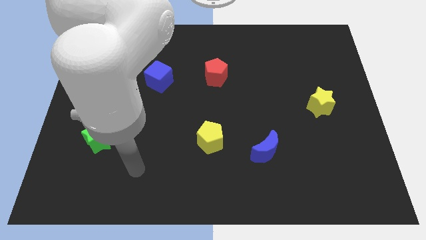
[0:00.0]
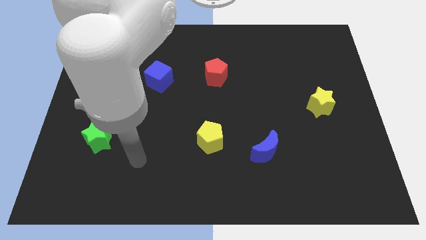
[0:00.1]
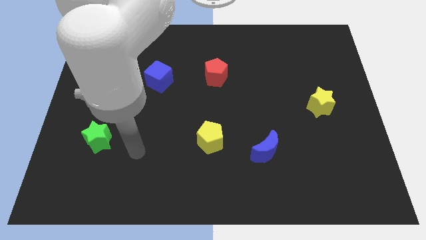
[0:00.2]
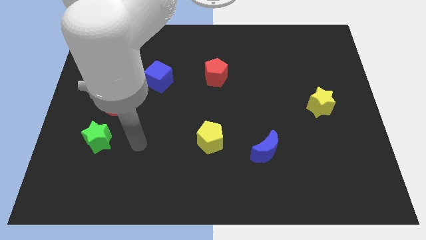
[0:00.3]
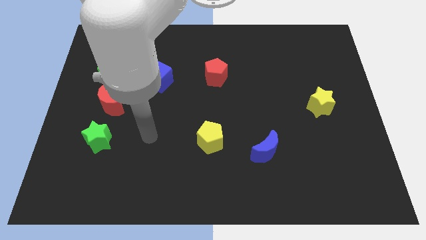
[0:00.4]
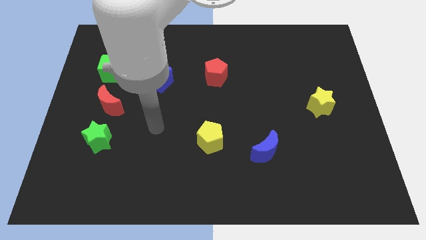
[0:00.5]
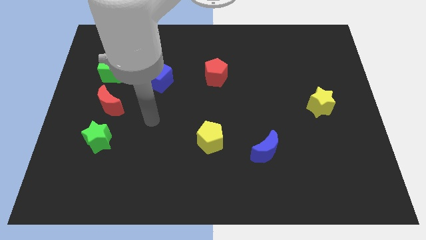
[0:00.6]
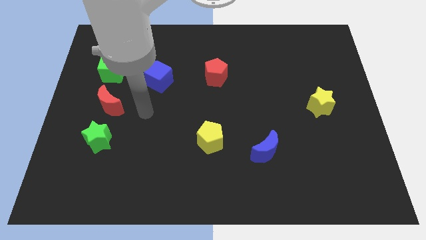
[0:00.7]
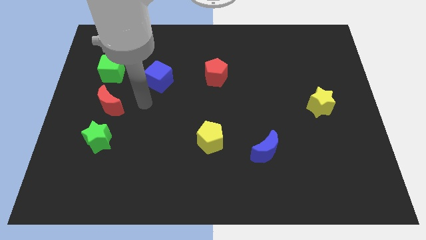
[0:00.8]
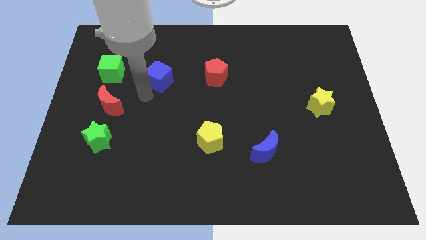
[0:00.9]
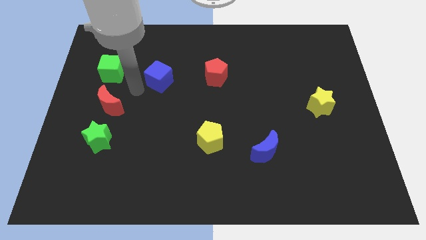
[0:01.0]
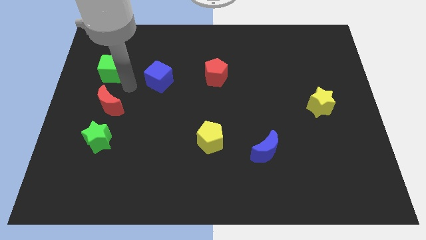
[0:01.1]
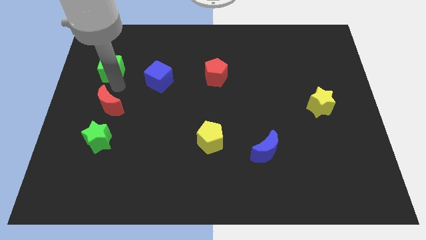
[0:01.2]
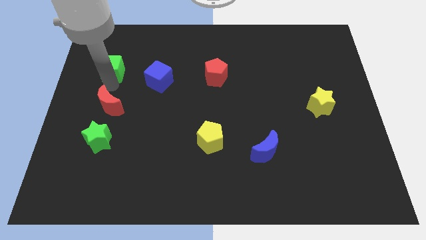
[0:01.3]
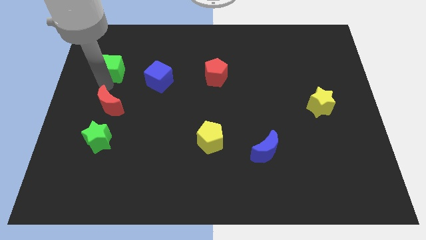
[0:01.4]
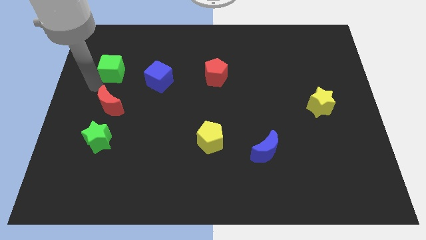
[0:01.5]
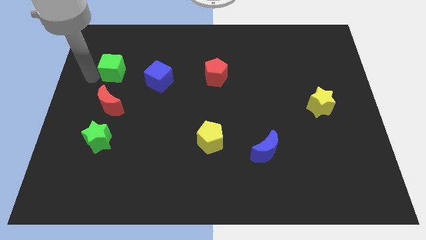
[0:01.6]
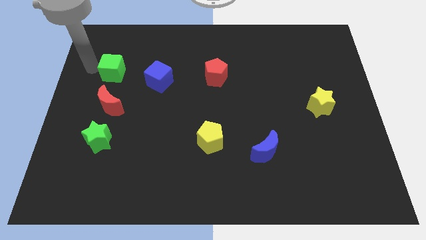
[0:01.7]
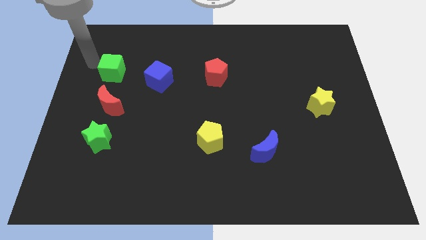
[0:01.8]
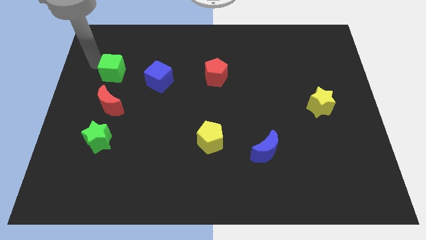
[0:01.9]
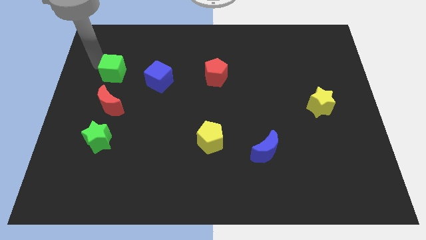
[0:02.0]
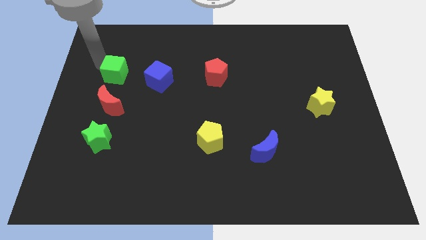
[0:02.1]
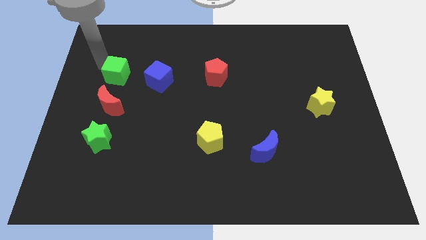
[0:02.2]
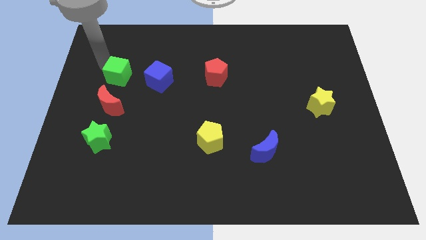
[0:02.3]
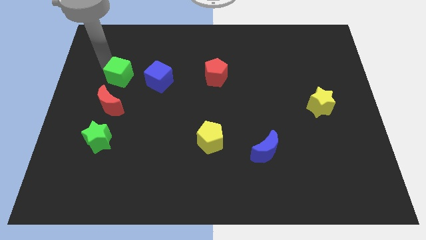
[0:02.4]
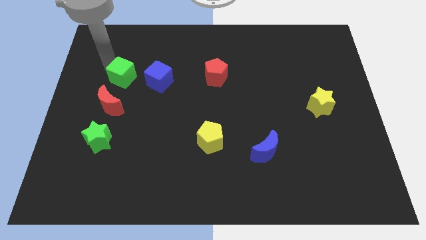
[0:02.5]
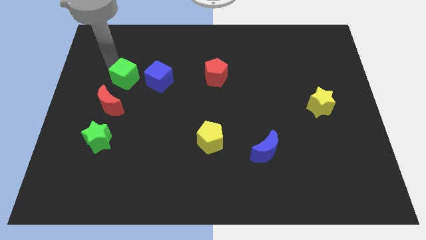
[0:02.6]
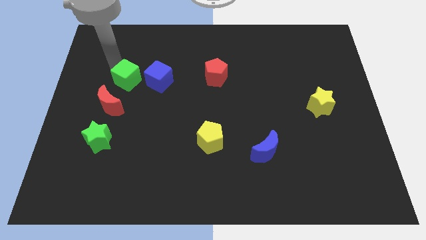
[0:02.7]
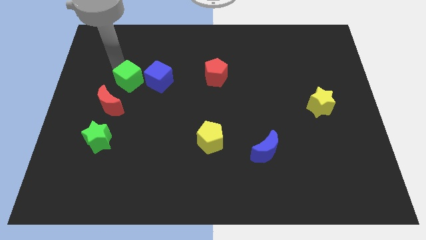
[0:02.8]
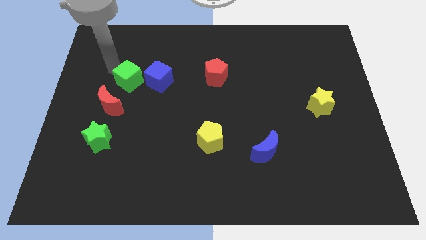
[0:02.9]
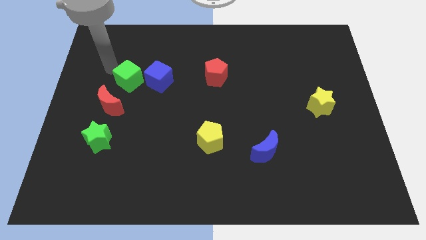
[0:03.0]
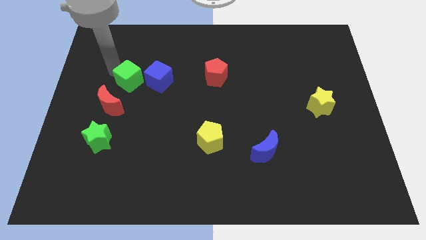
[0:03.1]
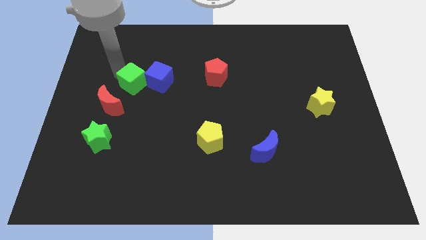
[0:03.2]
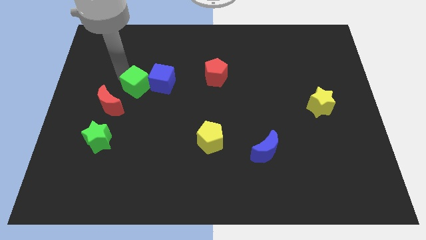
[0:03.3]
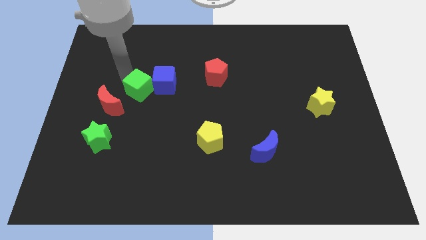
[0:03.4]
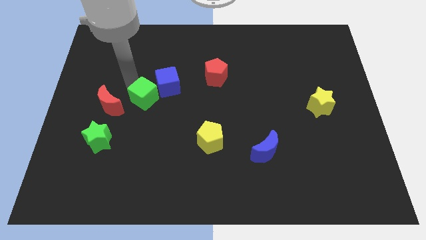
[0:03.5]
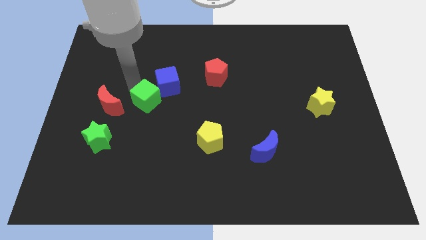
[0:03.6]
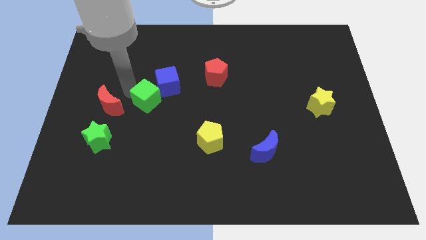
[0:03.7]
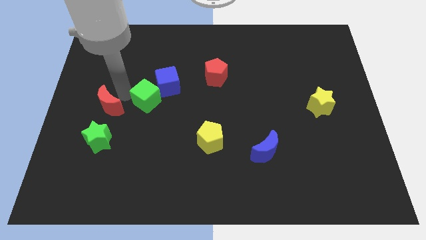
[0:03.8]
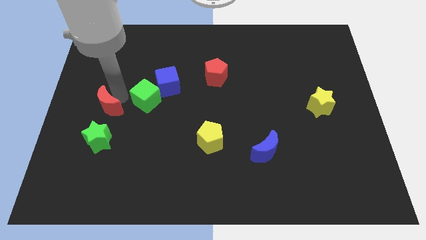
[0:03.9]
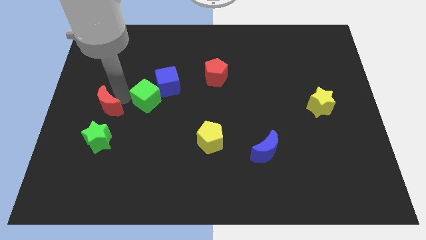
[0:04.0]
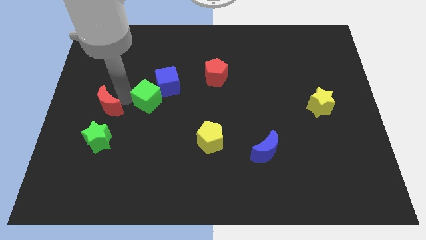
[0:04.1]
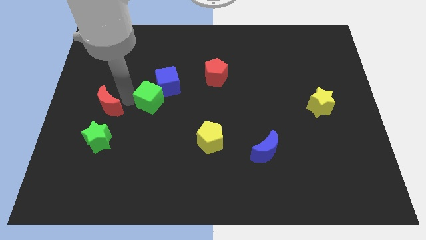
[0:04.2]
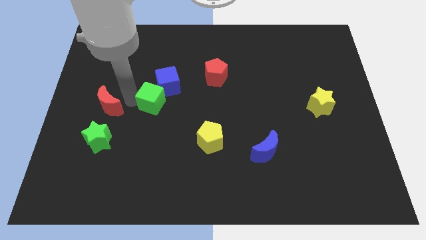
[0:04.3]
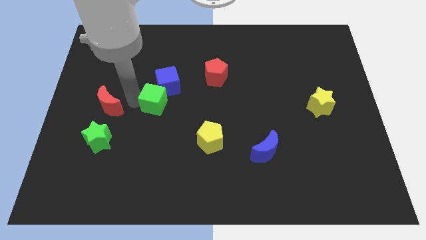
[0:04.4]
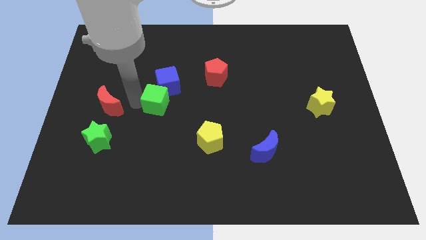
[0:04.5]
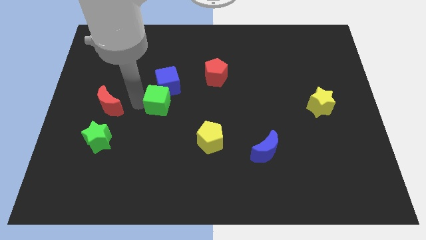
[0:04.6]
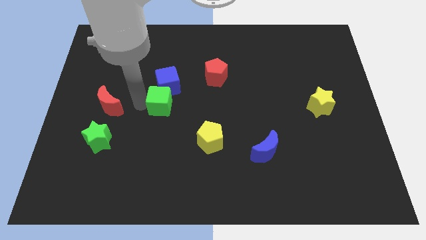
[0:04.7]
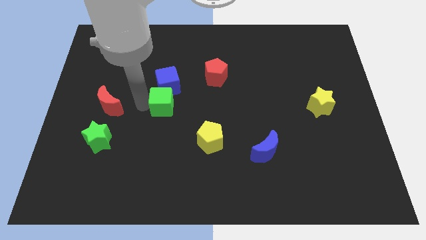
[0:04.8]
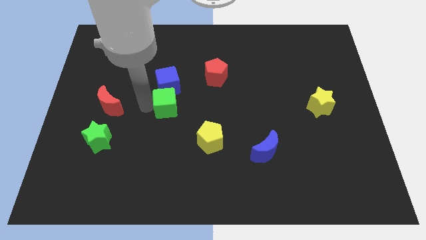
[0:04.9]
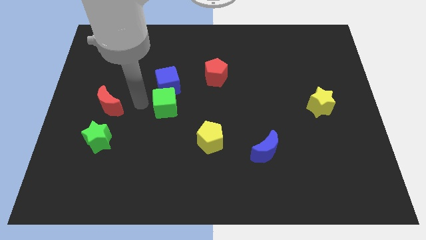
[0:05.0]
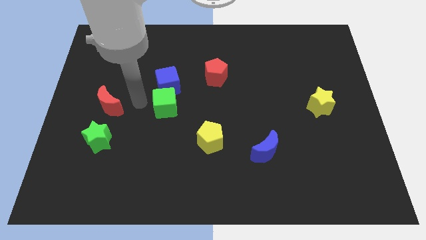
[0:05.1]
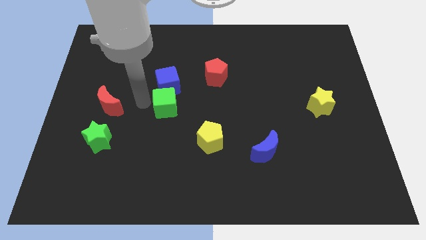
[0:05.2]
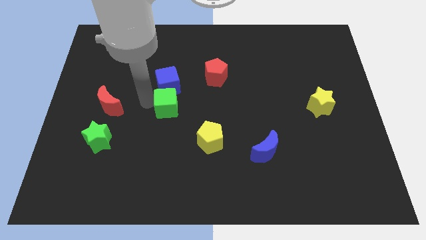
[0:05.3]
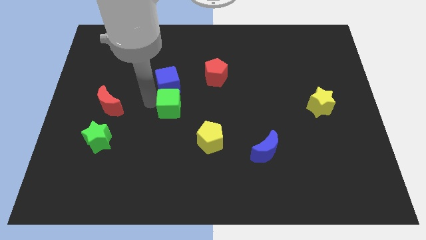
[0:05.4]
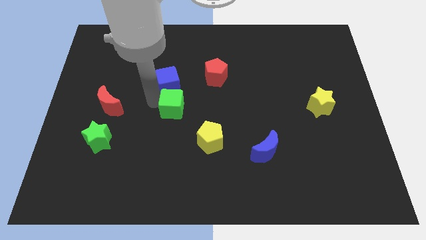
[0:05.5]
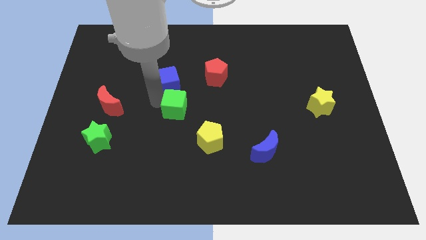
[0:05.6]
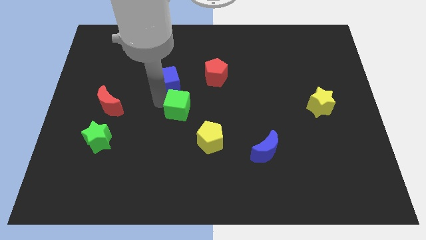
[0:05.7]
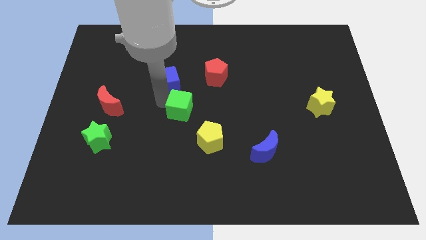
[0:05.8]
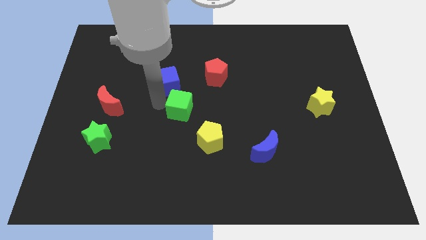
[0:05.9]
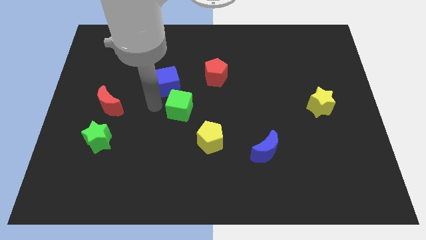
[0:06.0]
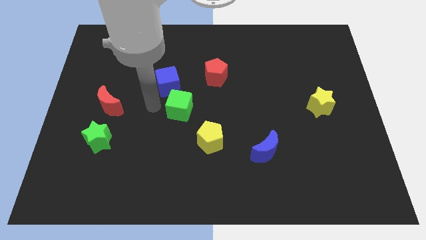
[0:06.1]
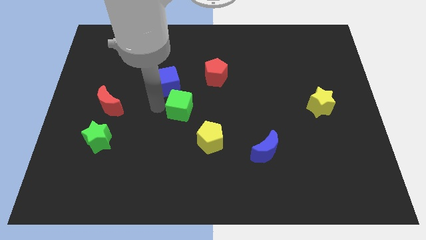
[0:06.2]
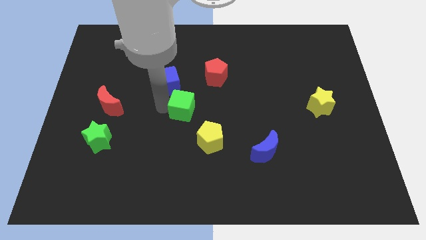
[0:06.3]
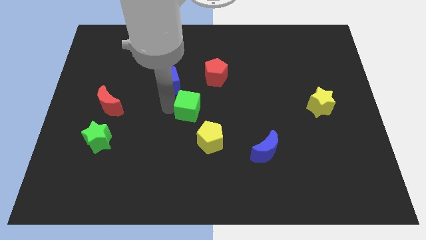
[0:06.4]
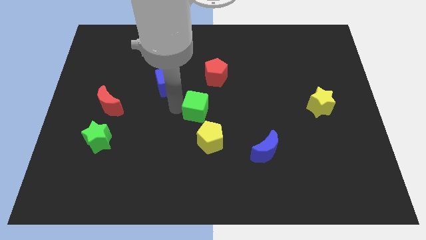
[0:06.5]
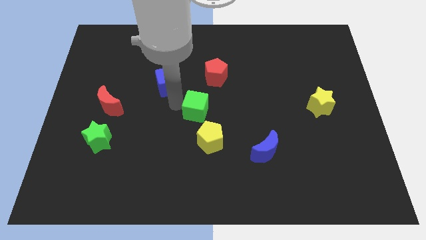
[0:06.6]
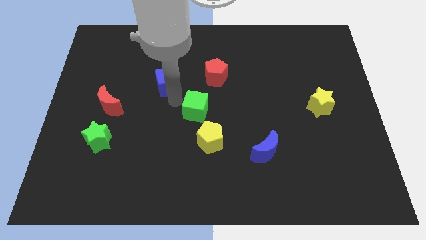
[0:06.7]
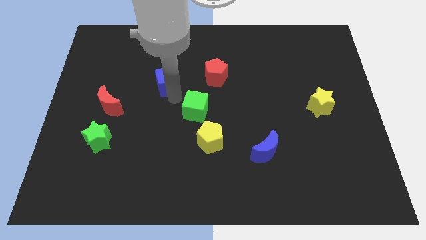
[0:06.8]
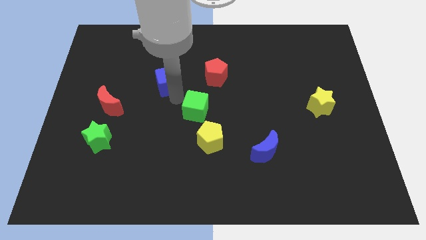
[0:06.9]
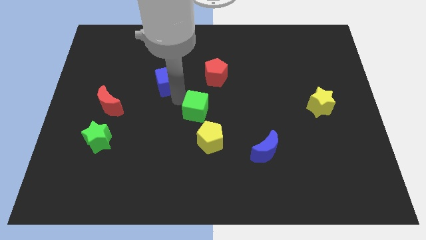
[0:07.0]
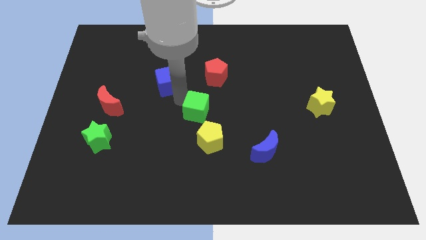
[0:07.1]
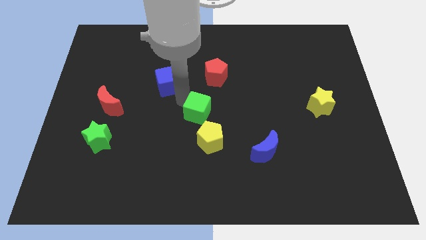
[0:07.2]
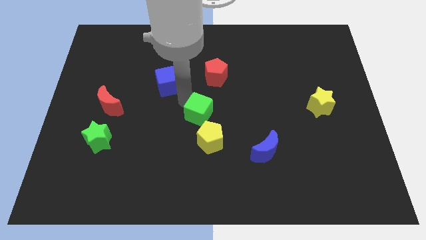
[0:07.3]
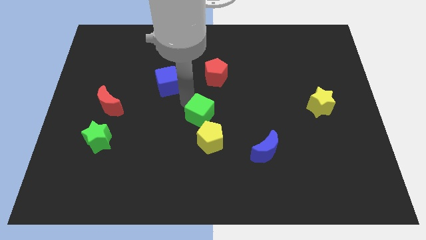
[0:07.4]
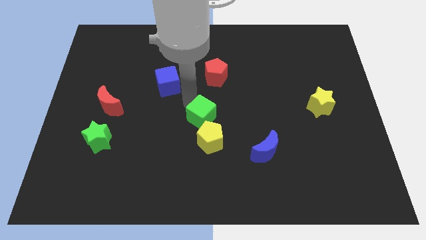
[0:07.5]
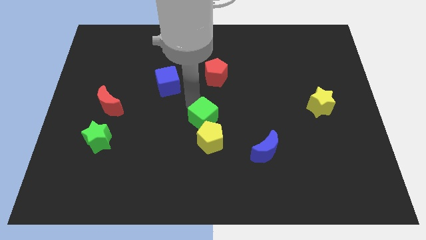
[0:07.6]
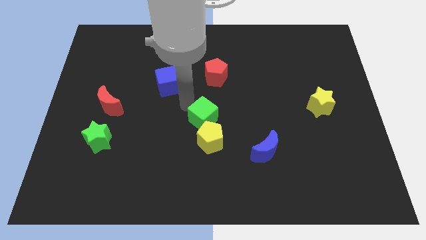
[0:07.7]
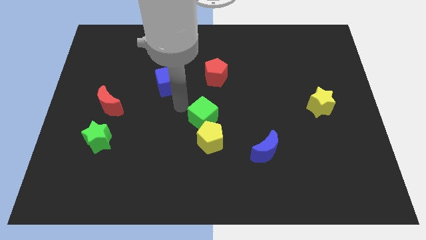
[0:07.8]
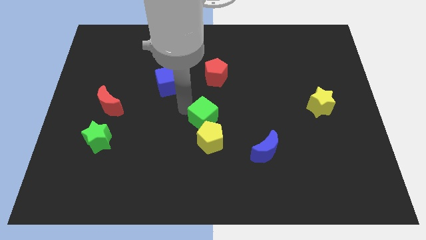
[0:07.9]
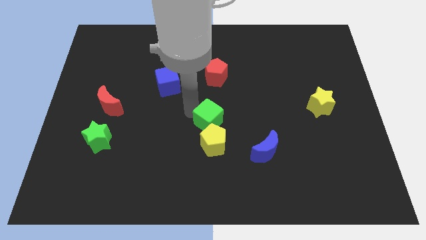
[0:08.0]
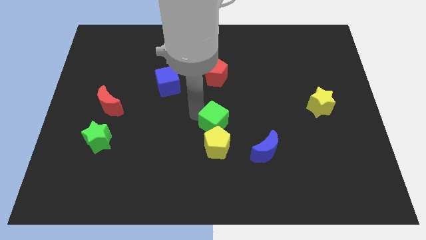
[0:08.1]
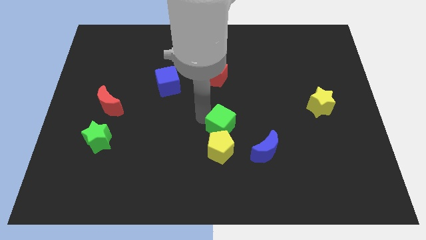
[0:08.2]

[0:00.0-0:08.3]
move the green cube diagonally up and to the left of the blue moon
